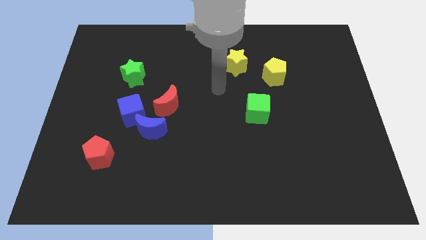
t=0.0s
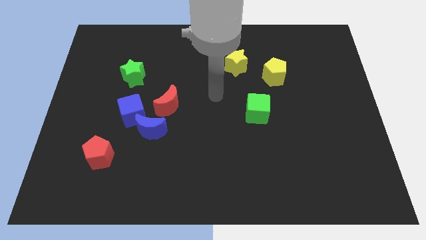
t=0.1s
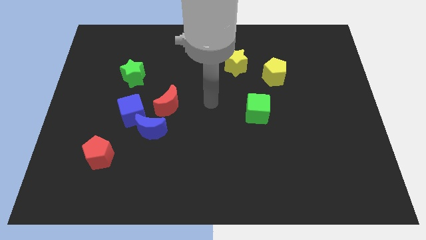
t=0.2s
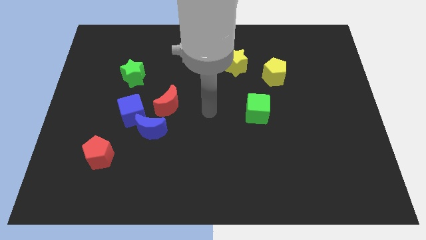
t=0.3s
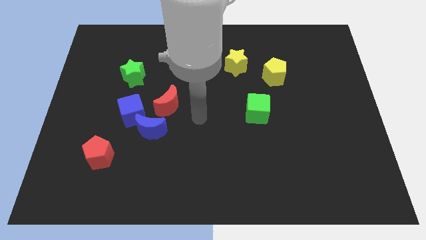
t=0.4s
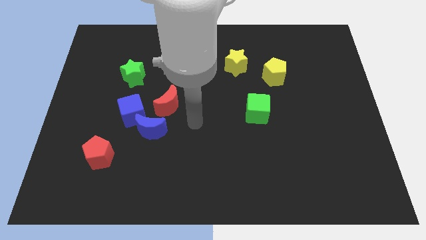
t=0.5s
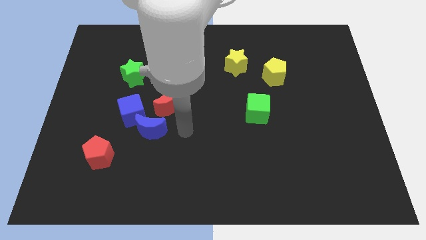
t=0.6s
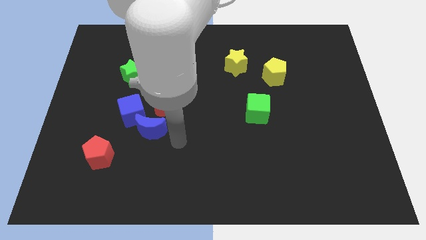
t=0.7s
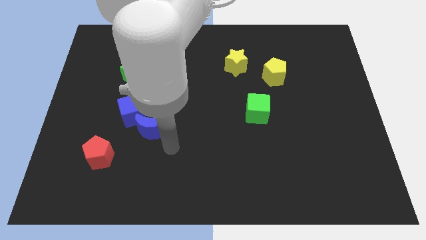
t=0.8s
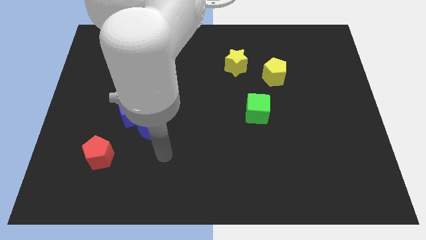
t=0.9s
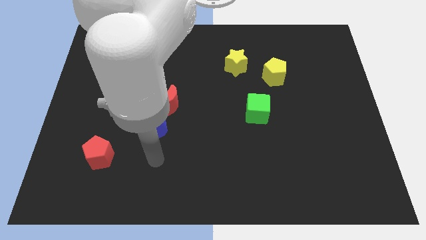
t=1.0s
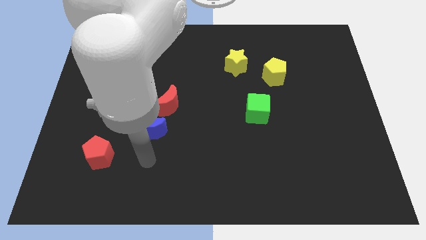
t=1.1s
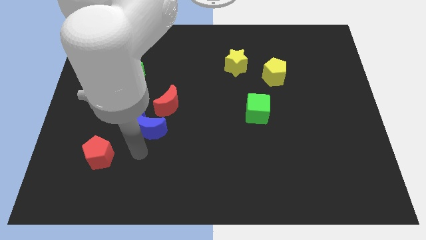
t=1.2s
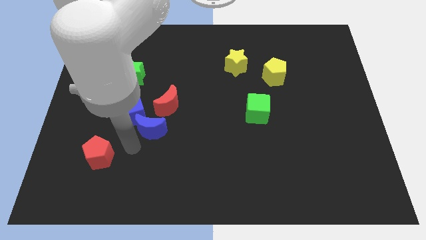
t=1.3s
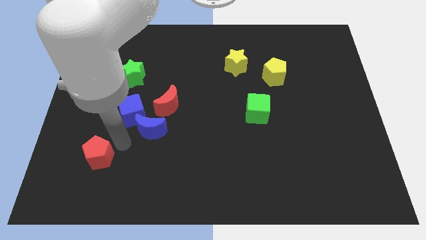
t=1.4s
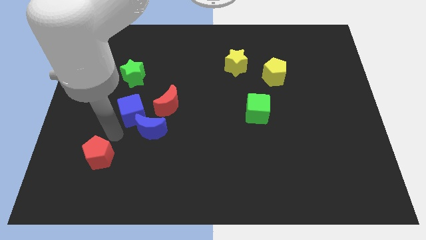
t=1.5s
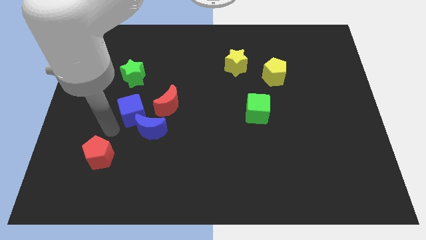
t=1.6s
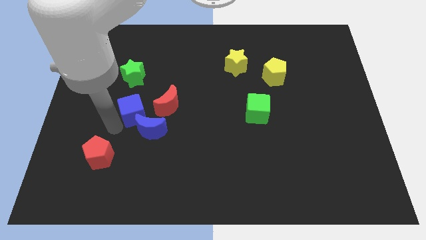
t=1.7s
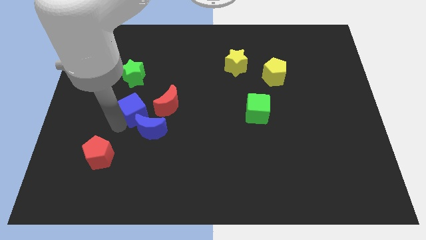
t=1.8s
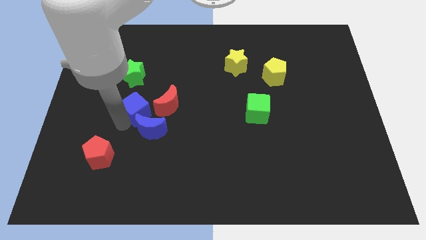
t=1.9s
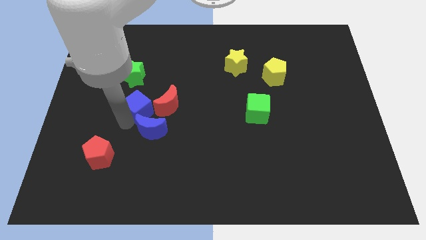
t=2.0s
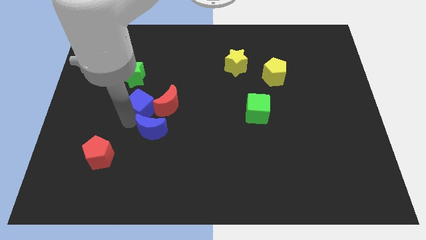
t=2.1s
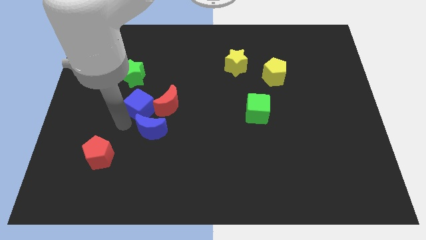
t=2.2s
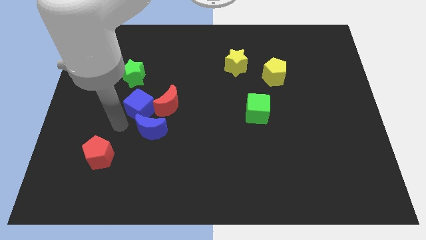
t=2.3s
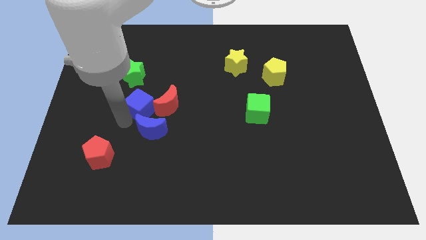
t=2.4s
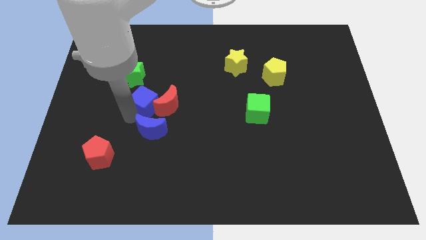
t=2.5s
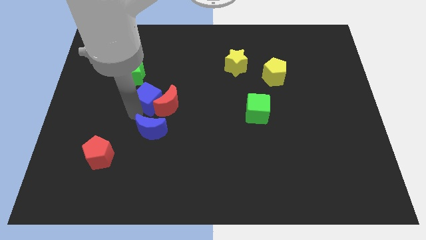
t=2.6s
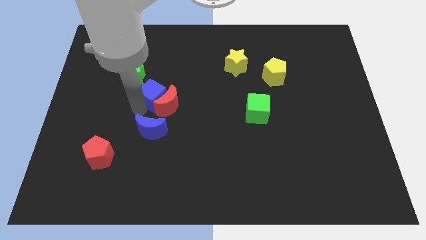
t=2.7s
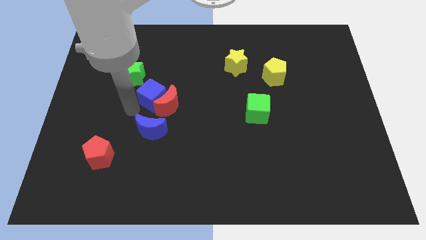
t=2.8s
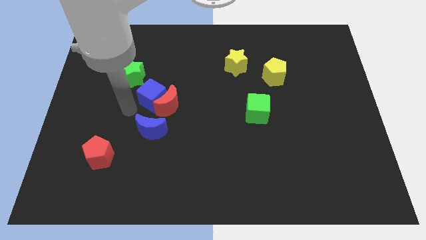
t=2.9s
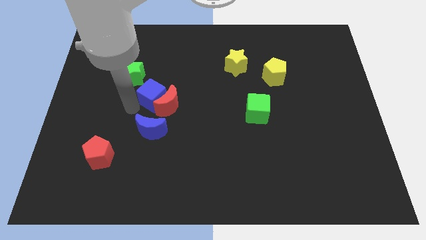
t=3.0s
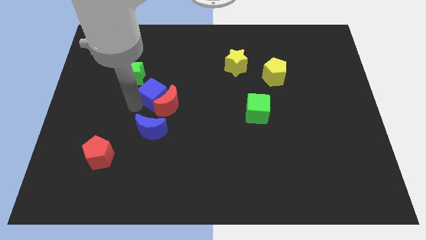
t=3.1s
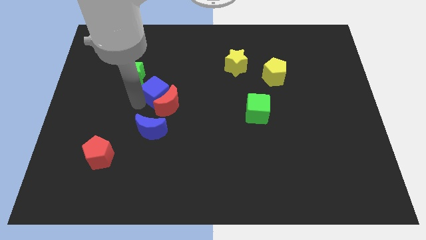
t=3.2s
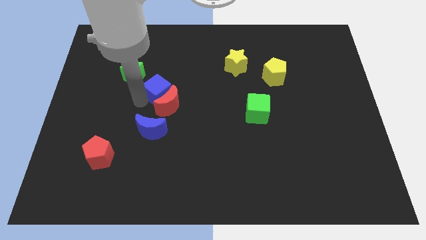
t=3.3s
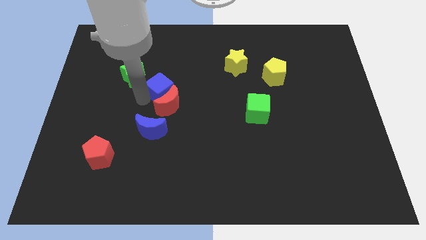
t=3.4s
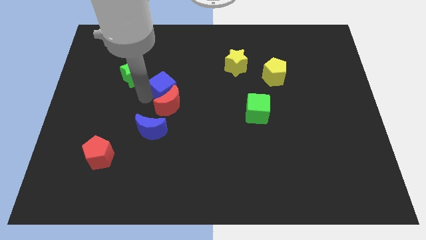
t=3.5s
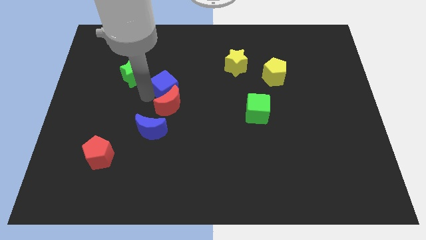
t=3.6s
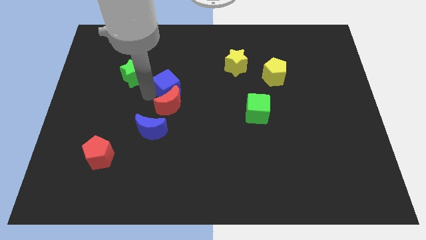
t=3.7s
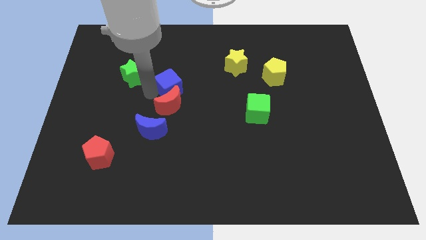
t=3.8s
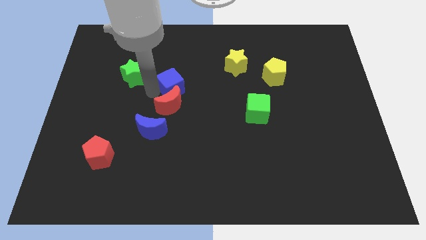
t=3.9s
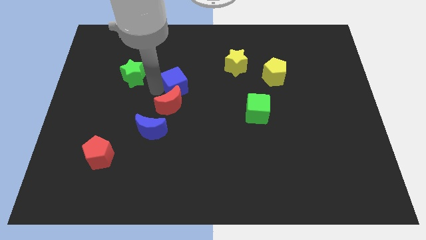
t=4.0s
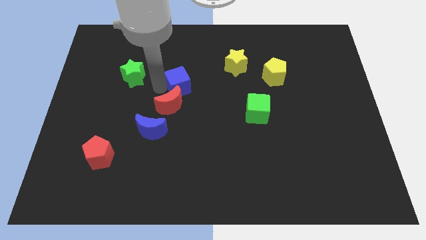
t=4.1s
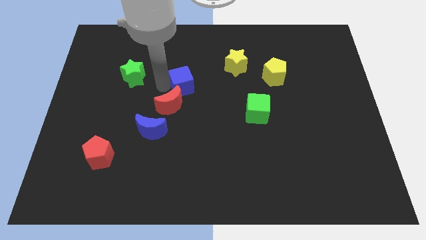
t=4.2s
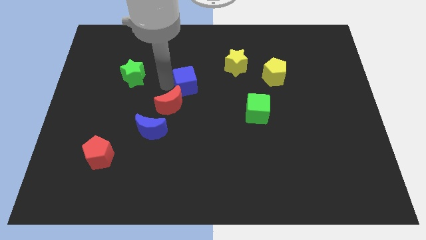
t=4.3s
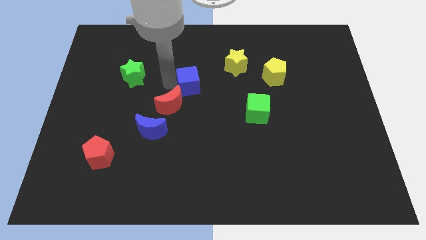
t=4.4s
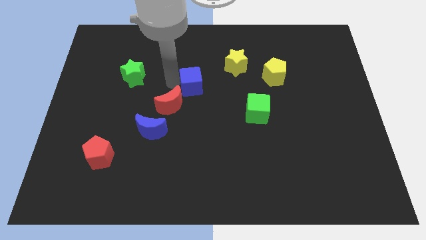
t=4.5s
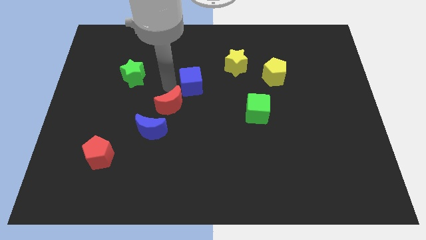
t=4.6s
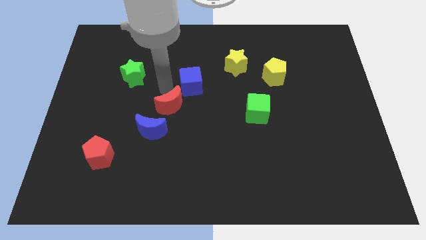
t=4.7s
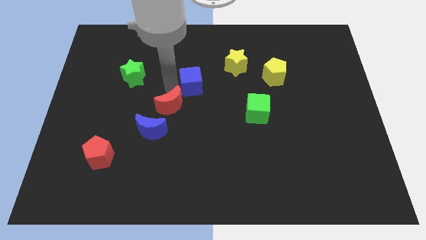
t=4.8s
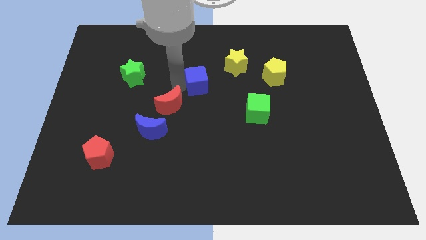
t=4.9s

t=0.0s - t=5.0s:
slide the blue cube to the bottom left of the yellow star

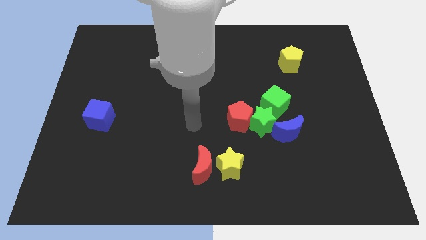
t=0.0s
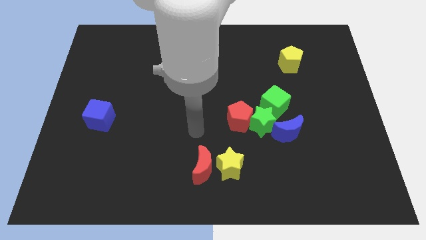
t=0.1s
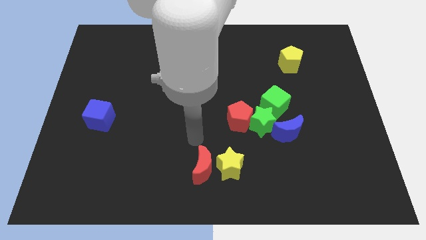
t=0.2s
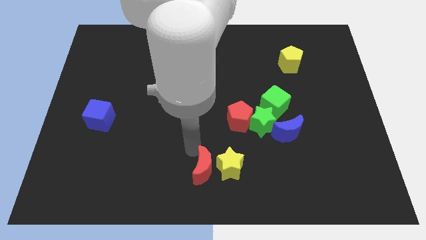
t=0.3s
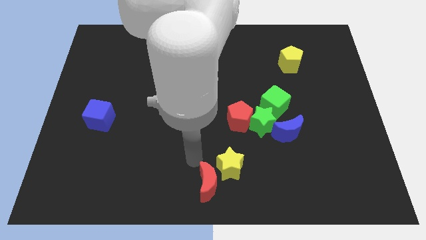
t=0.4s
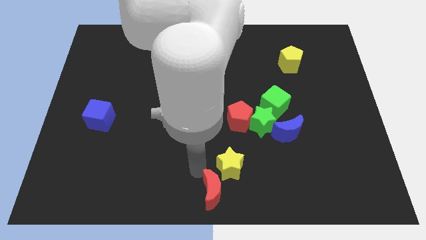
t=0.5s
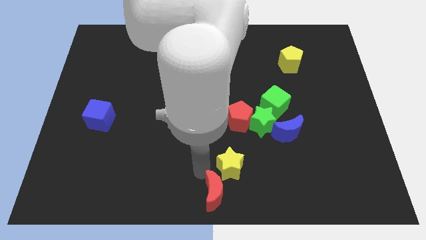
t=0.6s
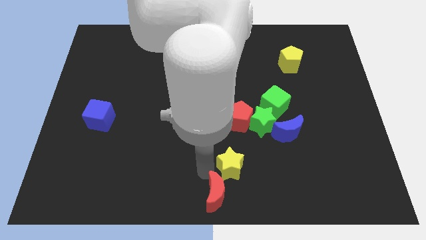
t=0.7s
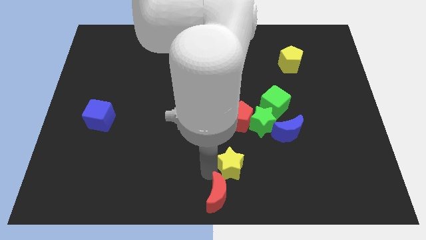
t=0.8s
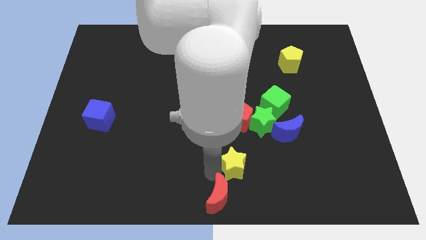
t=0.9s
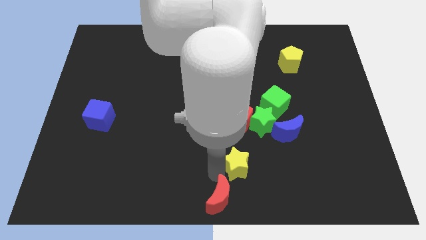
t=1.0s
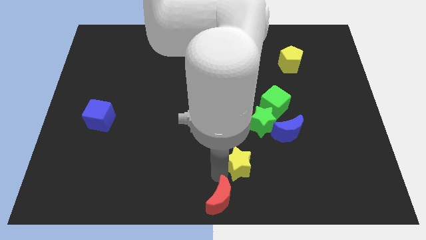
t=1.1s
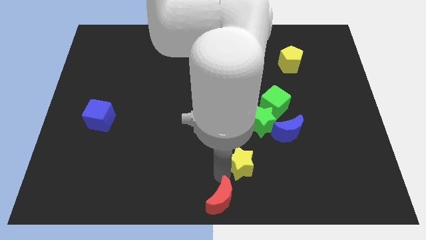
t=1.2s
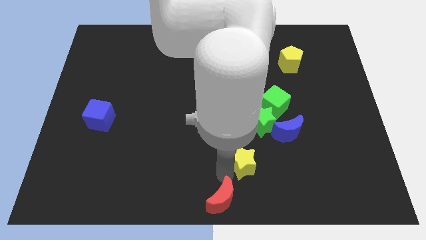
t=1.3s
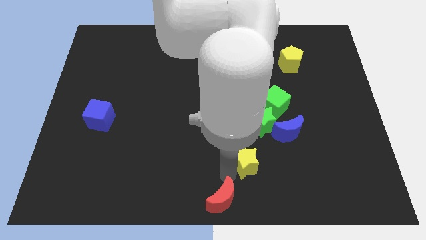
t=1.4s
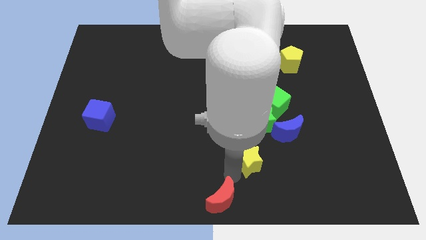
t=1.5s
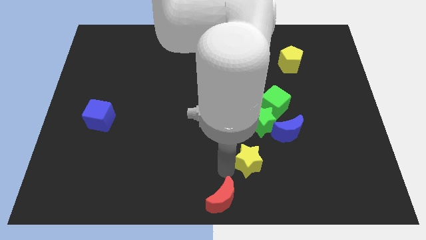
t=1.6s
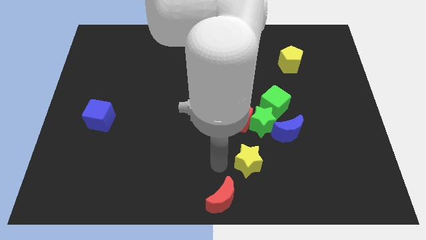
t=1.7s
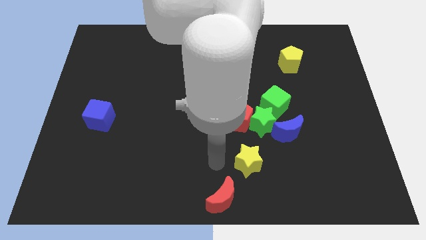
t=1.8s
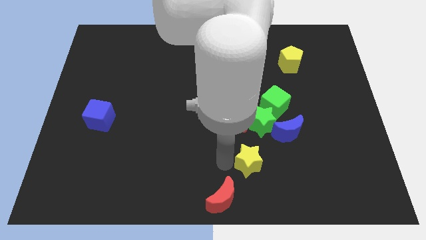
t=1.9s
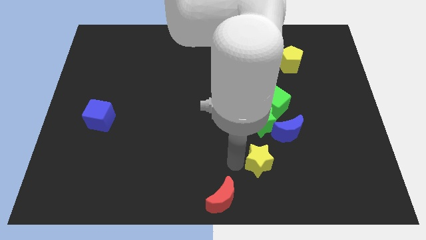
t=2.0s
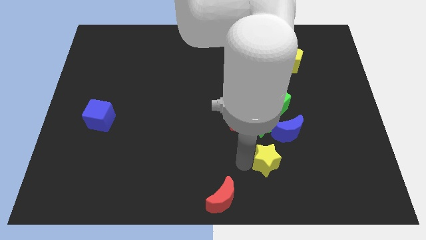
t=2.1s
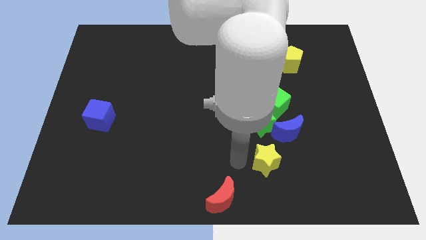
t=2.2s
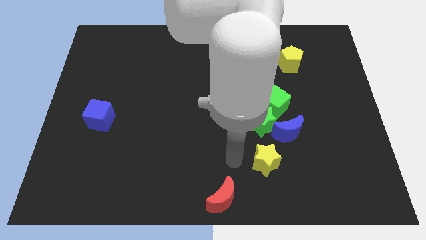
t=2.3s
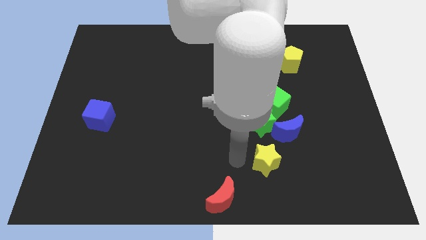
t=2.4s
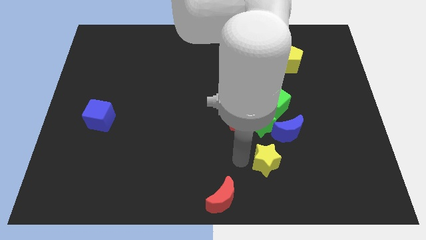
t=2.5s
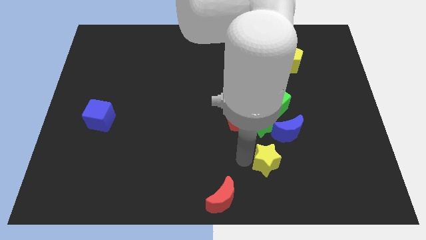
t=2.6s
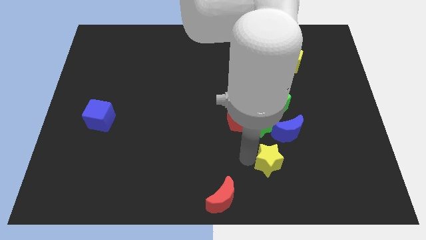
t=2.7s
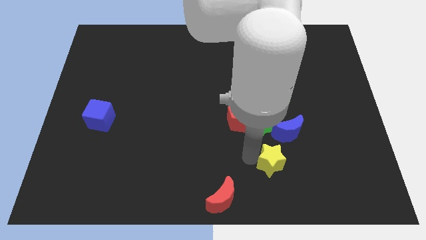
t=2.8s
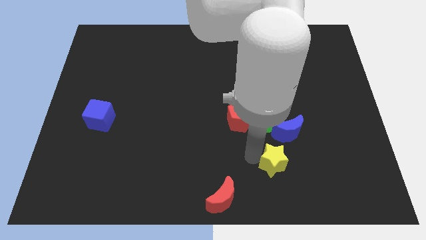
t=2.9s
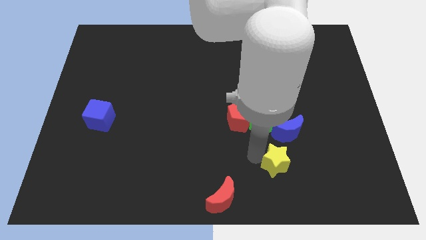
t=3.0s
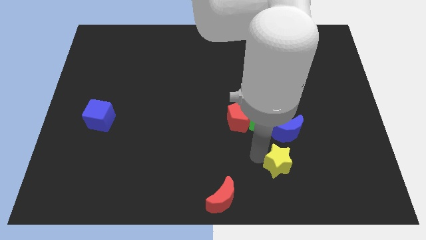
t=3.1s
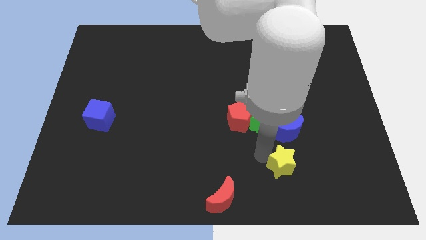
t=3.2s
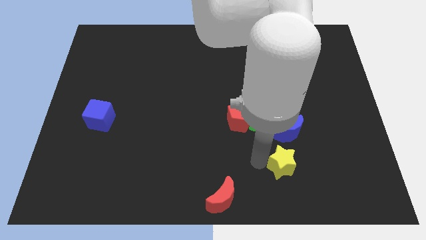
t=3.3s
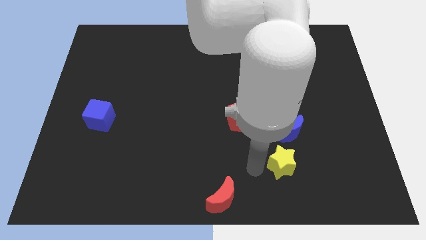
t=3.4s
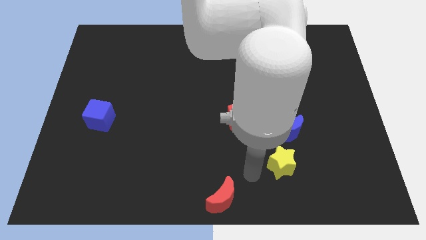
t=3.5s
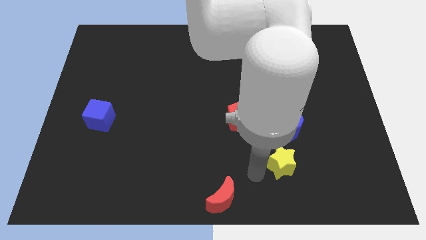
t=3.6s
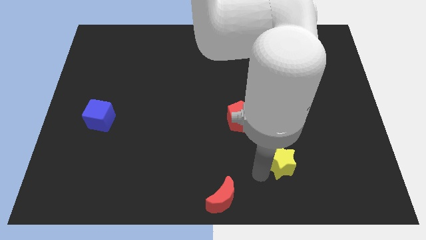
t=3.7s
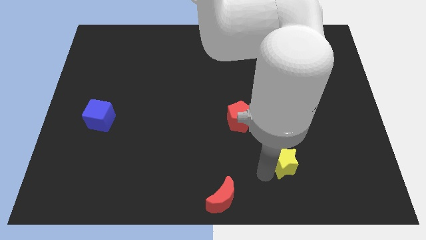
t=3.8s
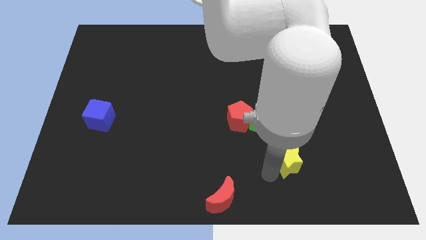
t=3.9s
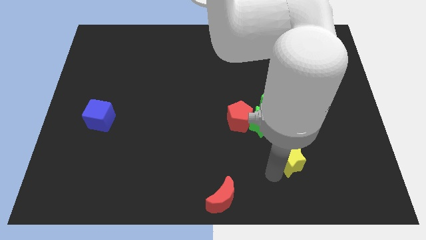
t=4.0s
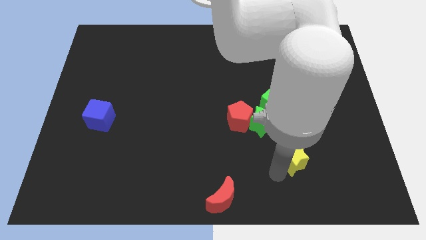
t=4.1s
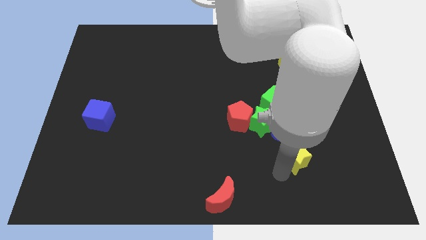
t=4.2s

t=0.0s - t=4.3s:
push the yellow star to the bottom right side of the blue moon
